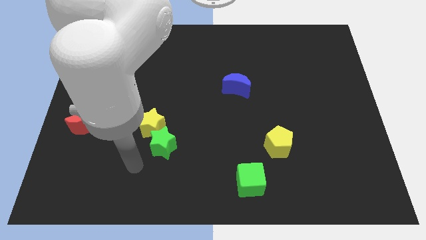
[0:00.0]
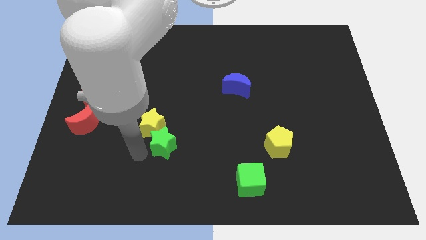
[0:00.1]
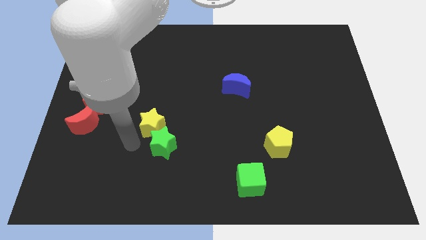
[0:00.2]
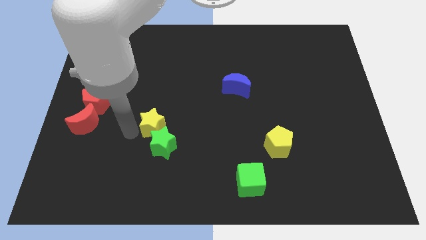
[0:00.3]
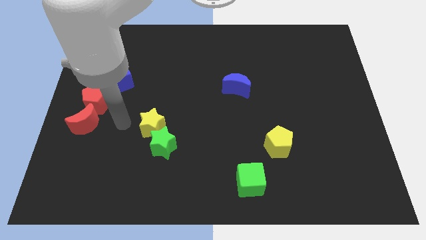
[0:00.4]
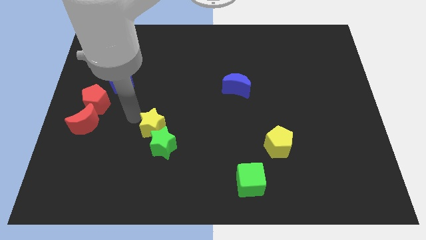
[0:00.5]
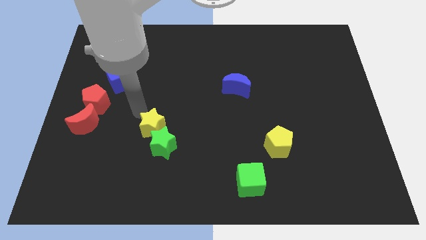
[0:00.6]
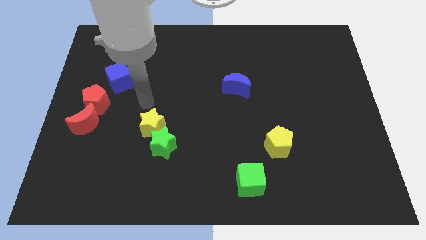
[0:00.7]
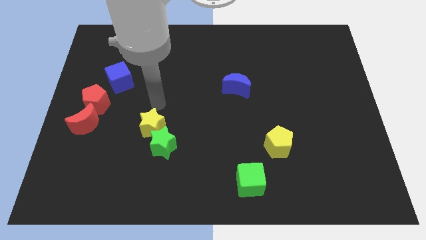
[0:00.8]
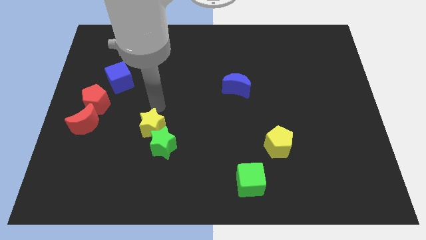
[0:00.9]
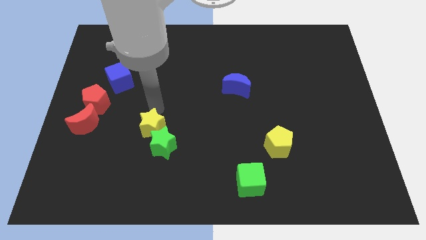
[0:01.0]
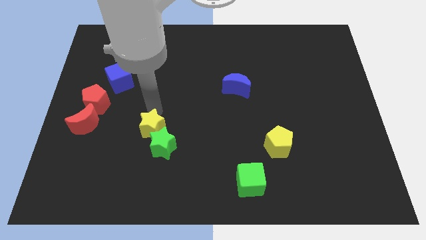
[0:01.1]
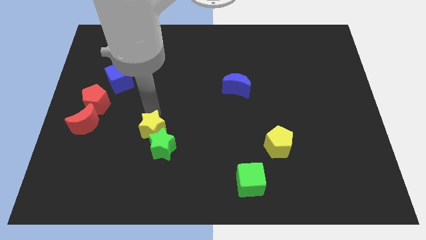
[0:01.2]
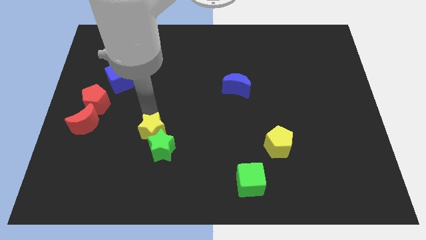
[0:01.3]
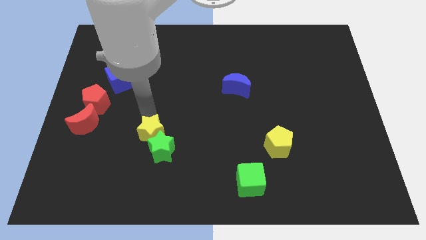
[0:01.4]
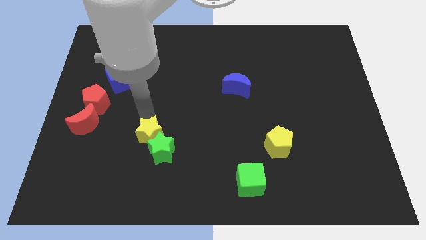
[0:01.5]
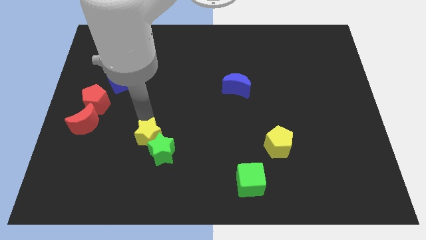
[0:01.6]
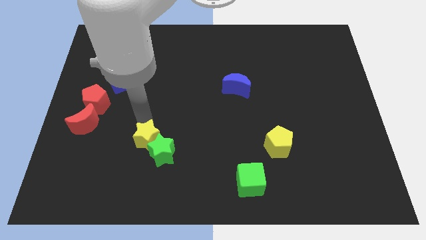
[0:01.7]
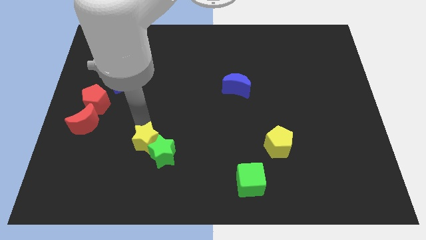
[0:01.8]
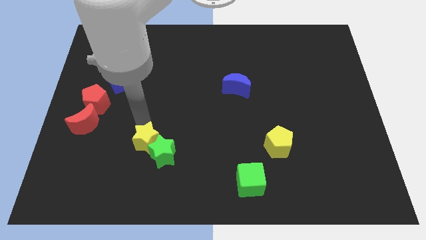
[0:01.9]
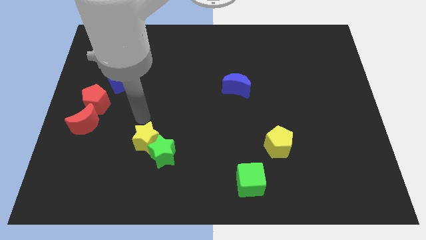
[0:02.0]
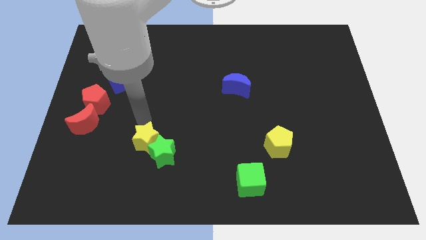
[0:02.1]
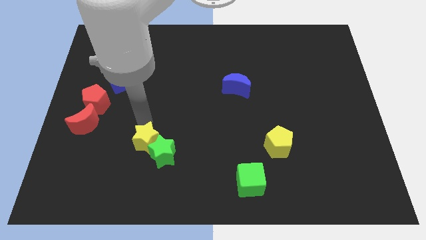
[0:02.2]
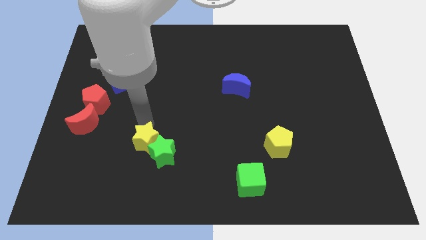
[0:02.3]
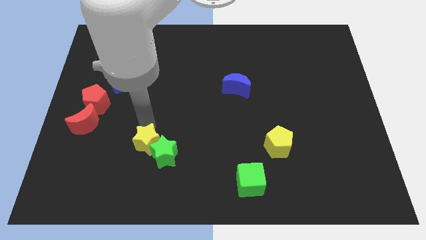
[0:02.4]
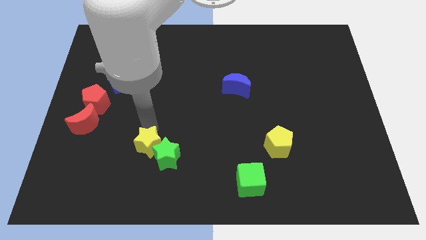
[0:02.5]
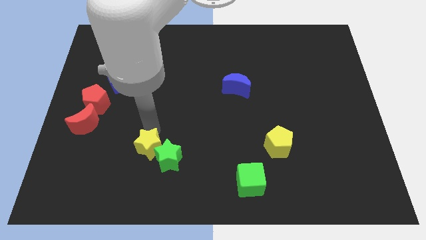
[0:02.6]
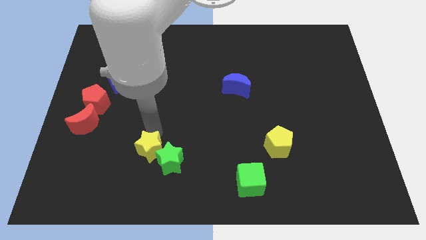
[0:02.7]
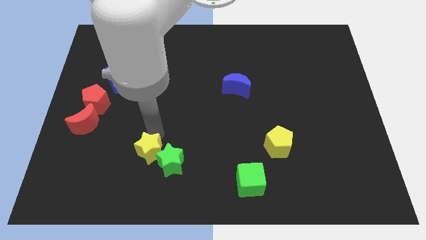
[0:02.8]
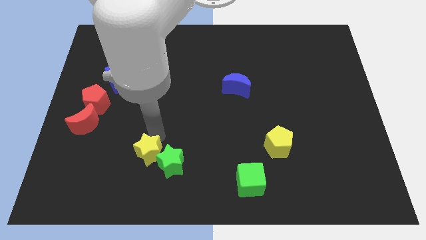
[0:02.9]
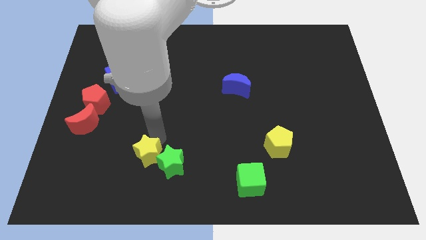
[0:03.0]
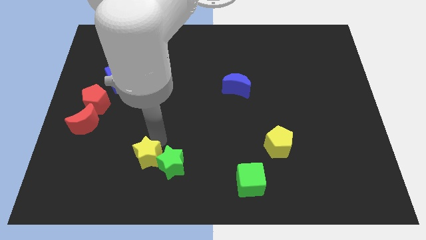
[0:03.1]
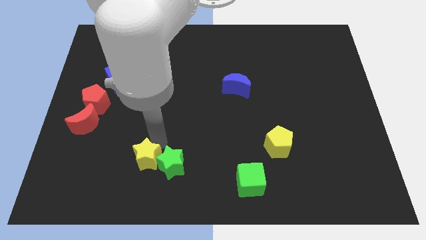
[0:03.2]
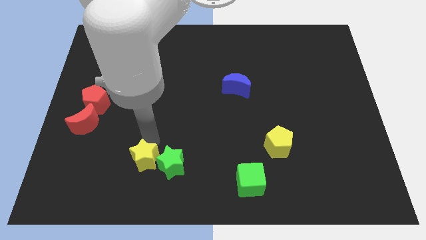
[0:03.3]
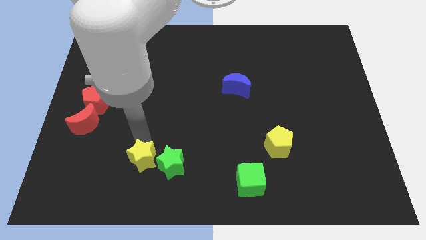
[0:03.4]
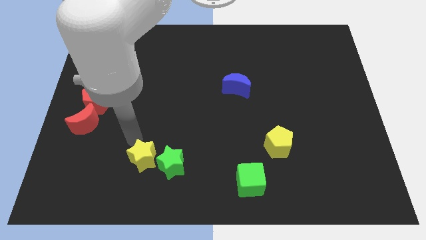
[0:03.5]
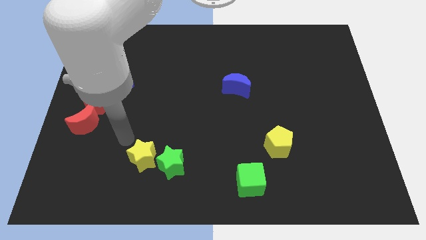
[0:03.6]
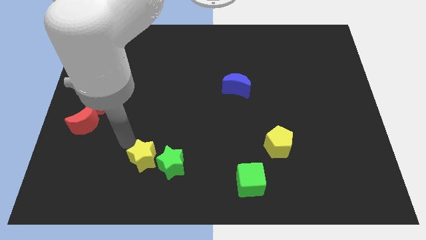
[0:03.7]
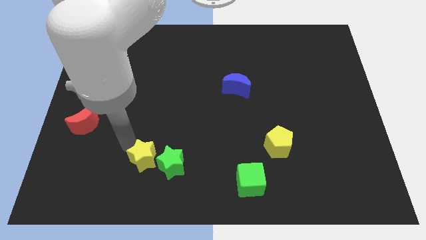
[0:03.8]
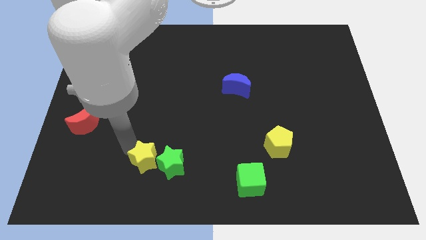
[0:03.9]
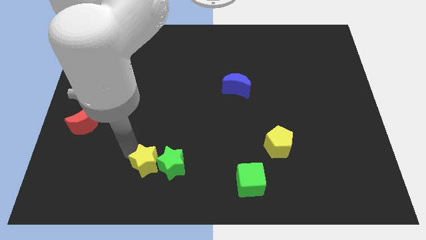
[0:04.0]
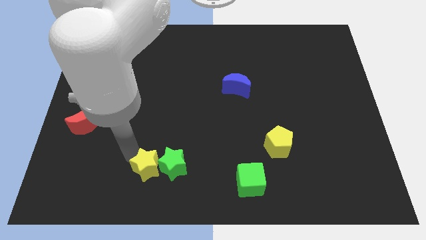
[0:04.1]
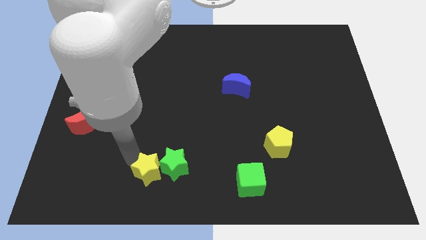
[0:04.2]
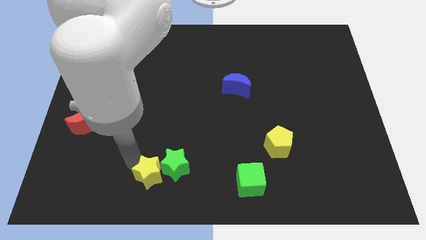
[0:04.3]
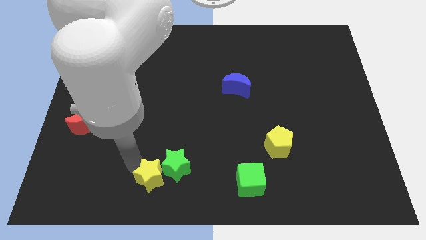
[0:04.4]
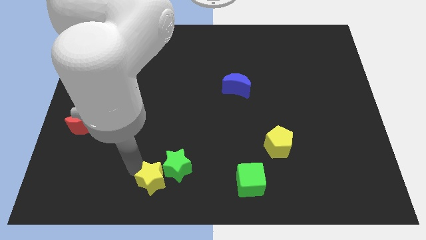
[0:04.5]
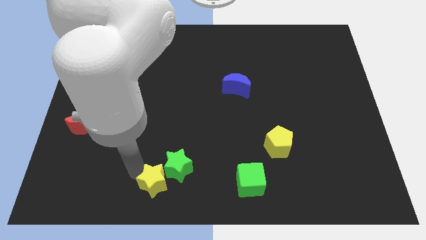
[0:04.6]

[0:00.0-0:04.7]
slide the yellow star to the bottom side

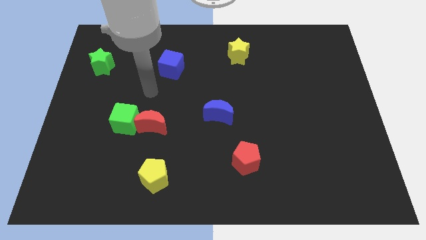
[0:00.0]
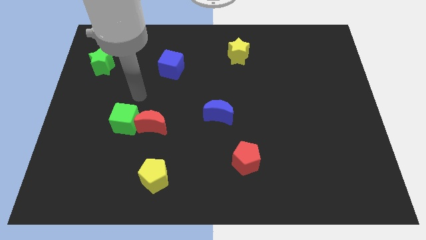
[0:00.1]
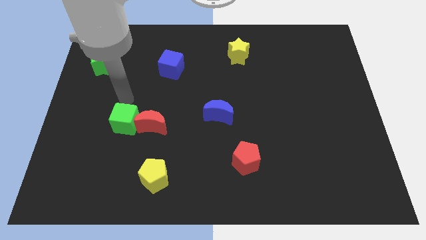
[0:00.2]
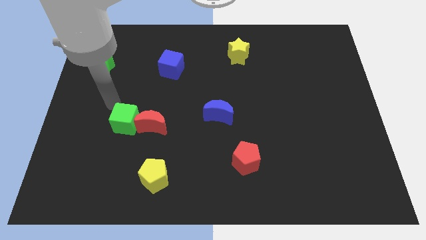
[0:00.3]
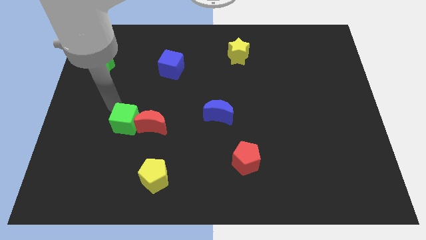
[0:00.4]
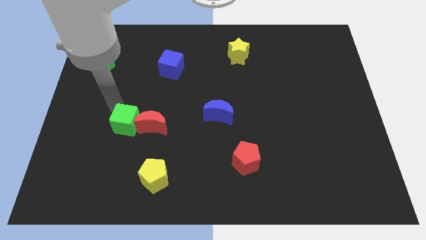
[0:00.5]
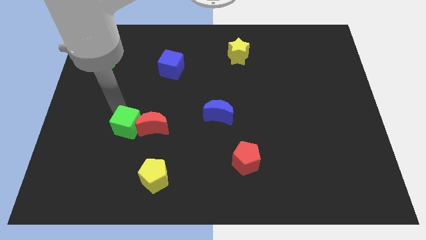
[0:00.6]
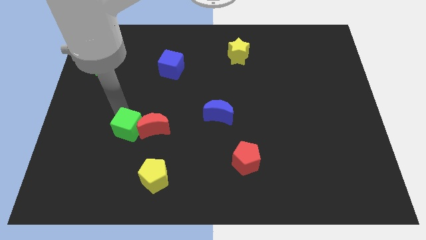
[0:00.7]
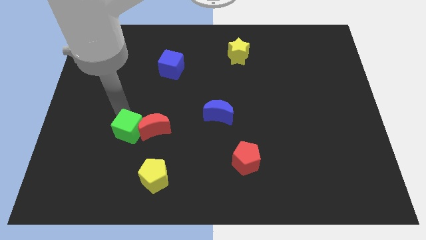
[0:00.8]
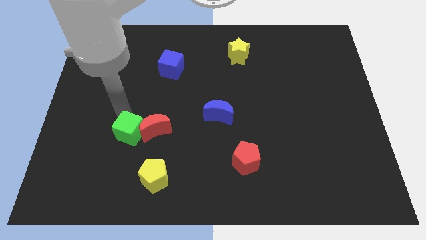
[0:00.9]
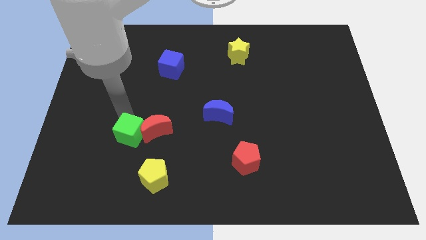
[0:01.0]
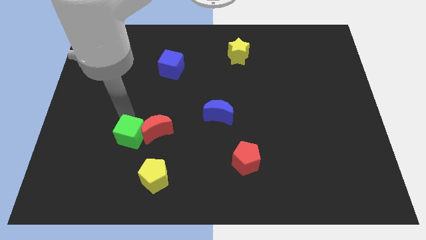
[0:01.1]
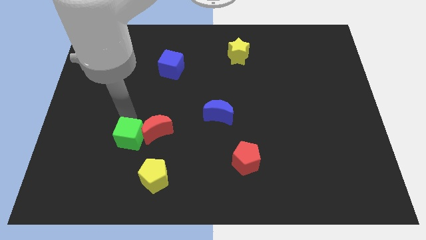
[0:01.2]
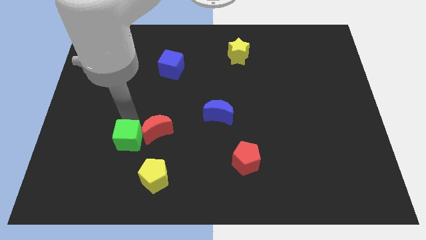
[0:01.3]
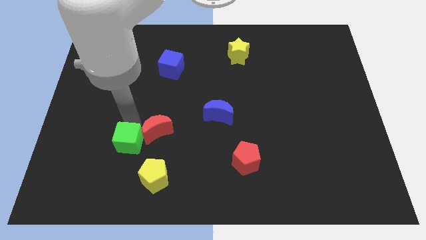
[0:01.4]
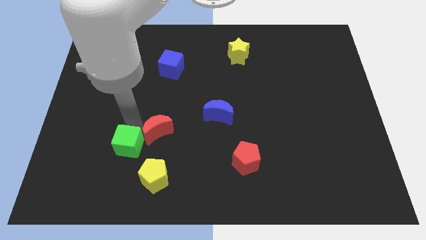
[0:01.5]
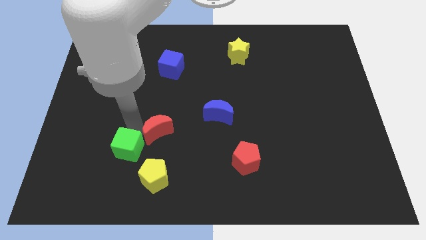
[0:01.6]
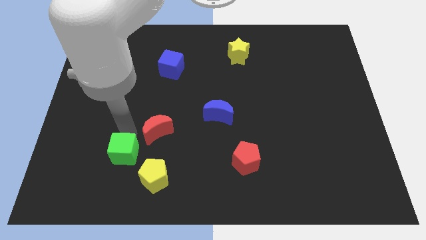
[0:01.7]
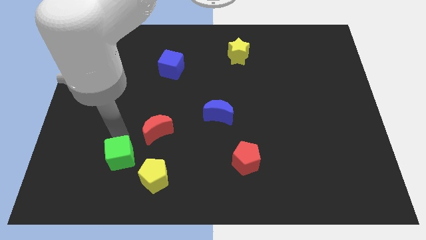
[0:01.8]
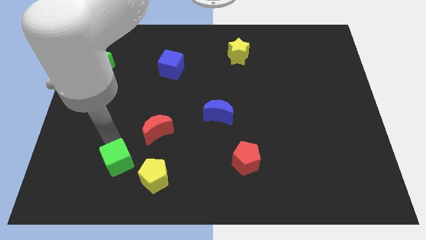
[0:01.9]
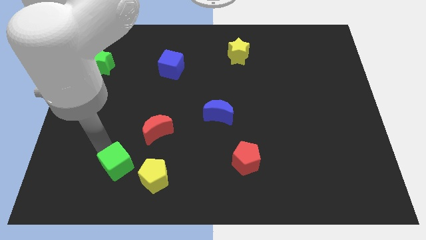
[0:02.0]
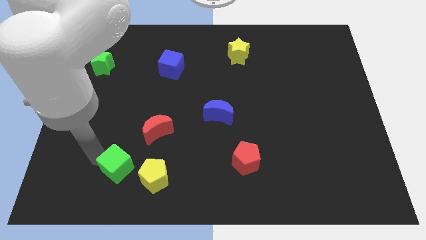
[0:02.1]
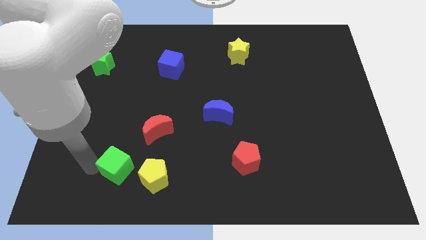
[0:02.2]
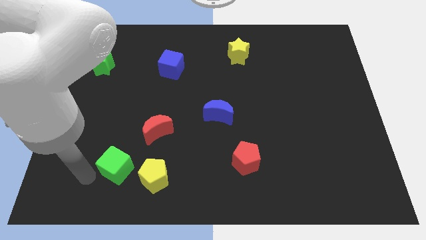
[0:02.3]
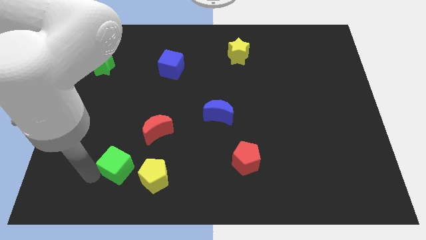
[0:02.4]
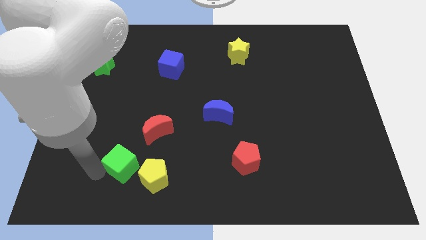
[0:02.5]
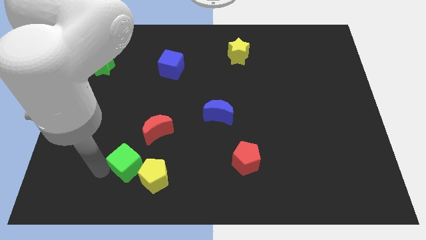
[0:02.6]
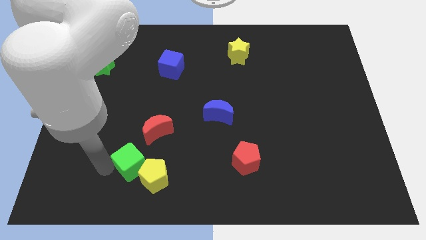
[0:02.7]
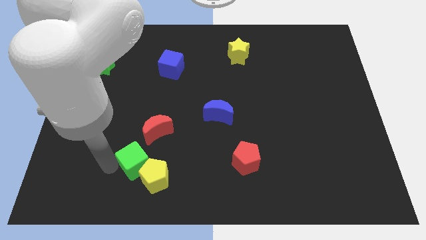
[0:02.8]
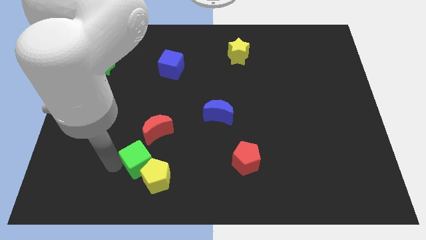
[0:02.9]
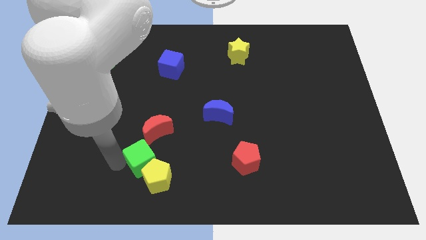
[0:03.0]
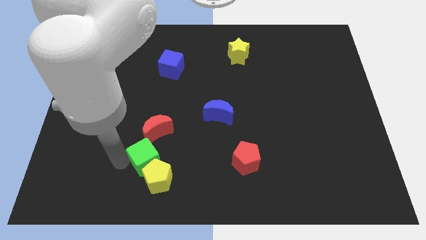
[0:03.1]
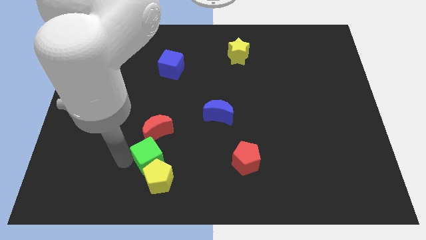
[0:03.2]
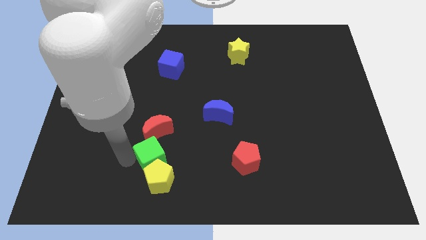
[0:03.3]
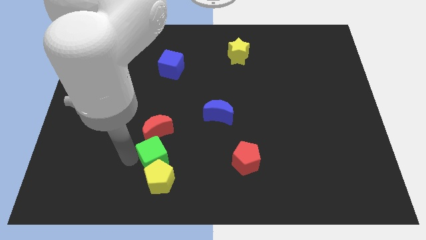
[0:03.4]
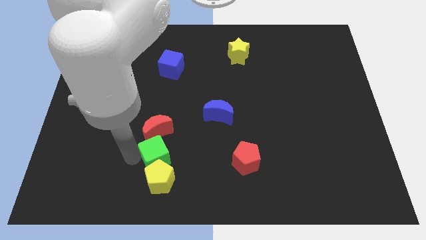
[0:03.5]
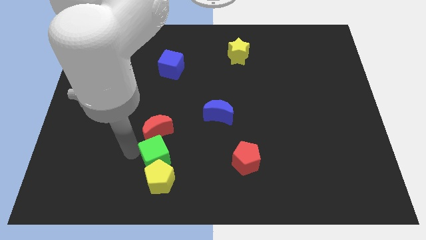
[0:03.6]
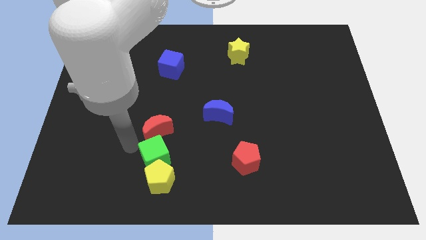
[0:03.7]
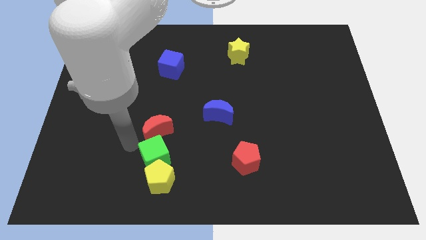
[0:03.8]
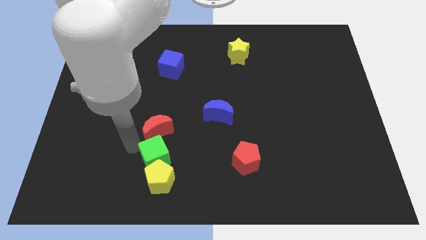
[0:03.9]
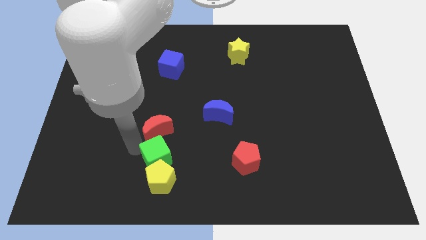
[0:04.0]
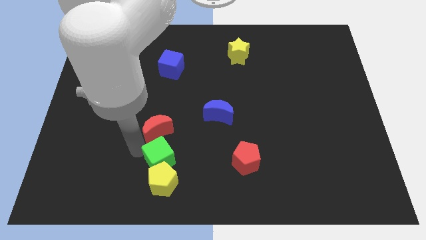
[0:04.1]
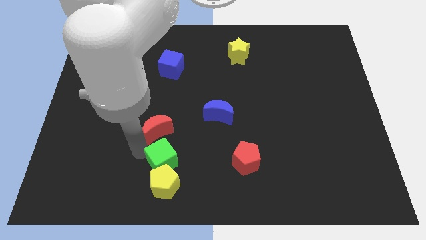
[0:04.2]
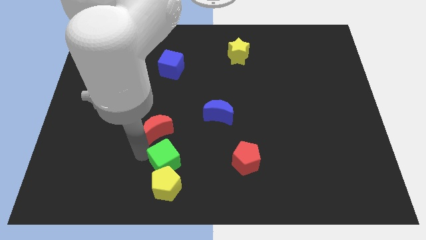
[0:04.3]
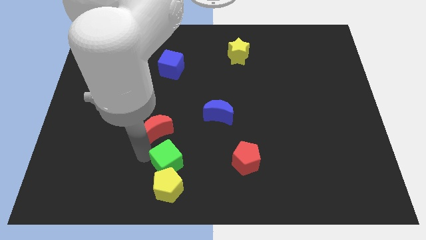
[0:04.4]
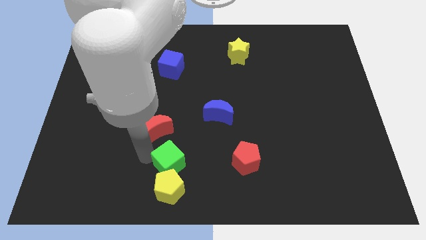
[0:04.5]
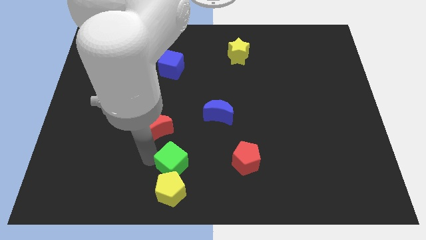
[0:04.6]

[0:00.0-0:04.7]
move the green cube to the bottom
